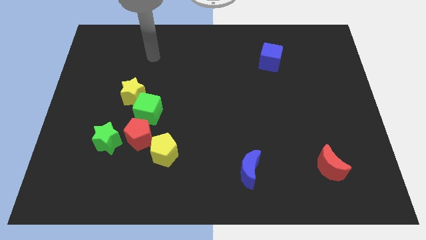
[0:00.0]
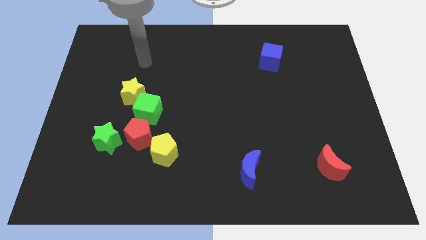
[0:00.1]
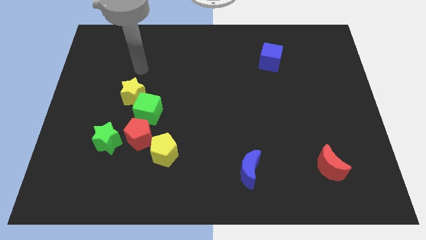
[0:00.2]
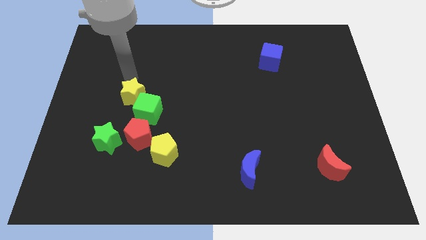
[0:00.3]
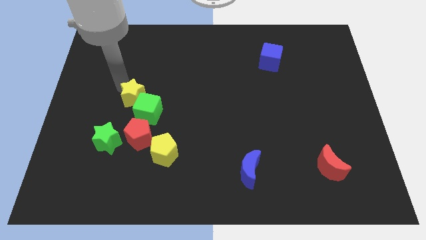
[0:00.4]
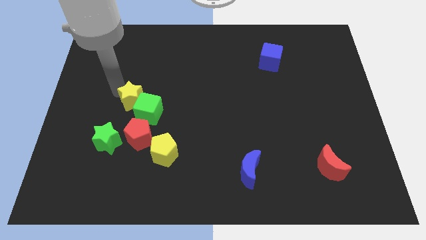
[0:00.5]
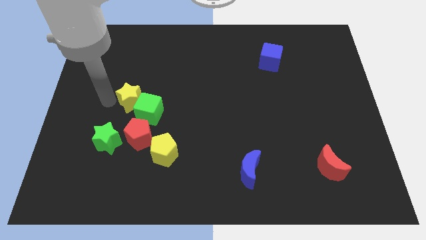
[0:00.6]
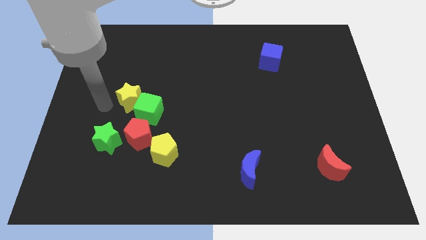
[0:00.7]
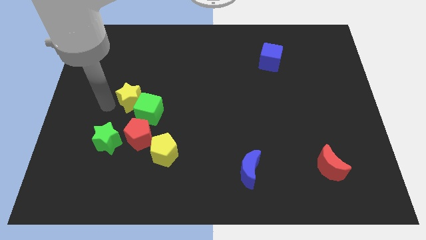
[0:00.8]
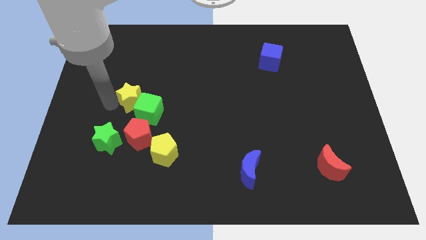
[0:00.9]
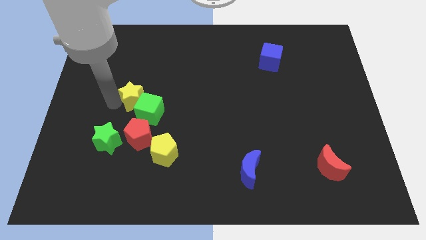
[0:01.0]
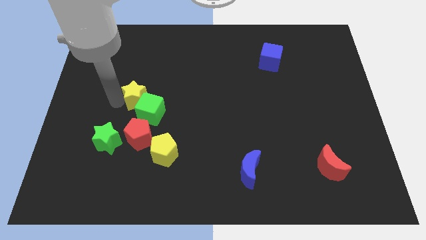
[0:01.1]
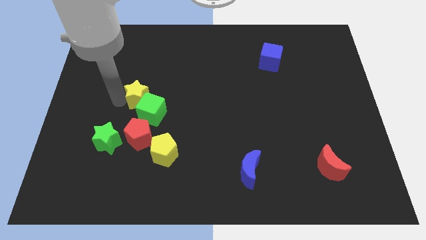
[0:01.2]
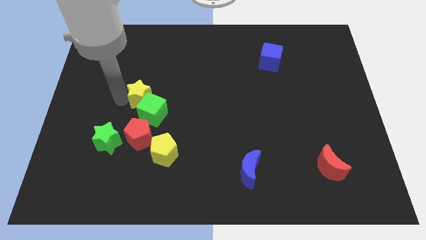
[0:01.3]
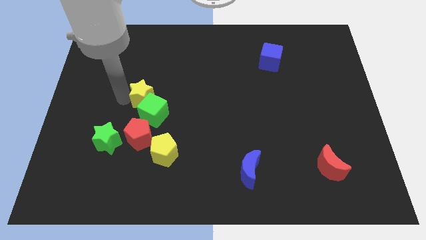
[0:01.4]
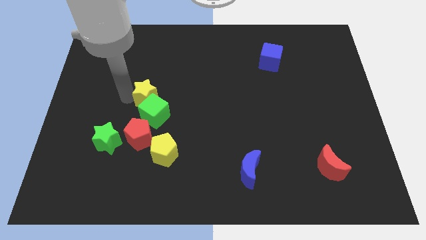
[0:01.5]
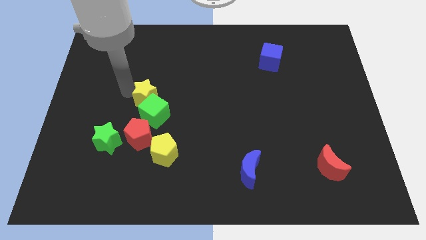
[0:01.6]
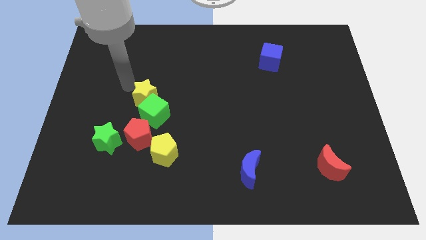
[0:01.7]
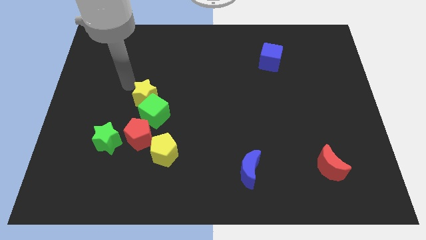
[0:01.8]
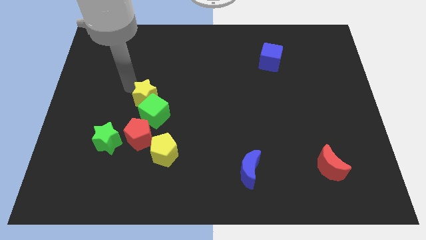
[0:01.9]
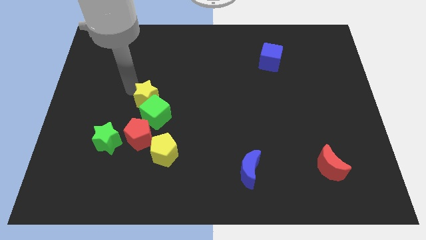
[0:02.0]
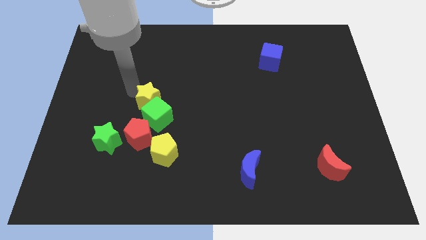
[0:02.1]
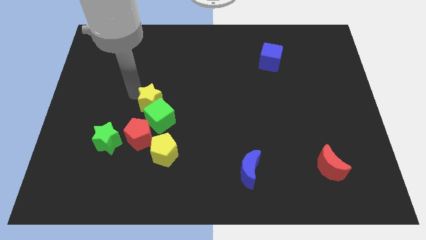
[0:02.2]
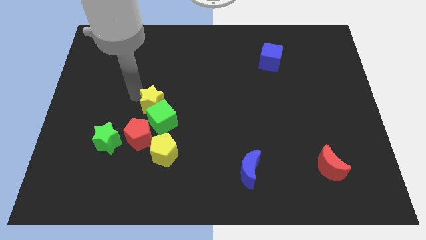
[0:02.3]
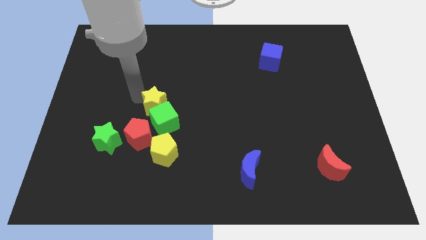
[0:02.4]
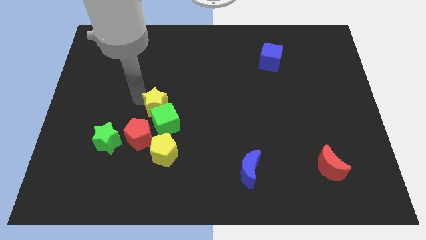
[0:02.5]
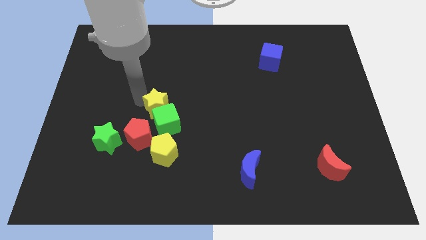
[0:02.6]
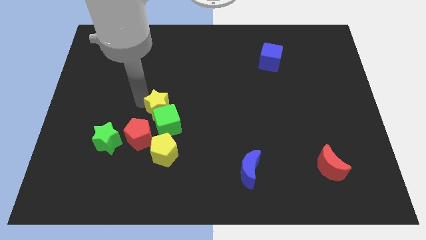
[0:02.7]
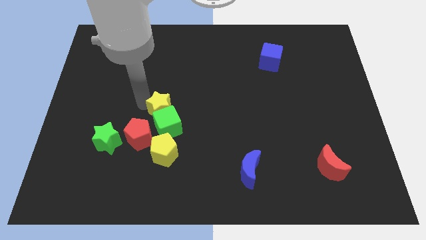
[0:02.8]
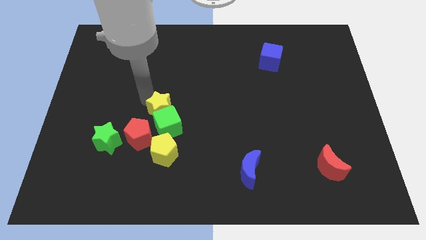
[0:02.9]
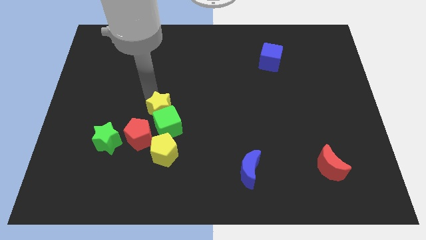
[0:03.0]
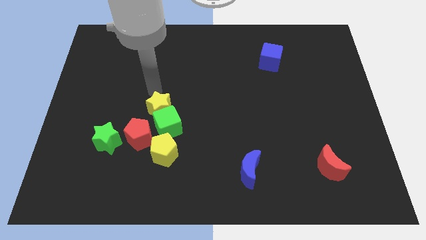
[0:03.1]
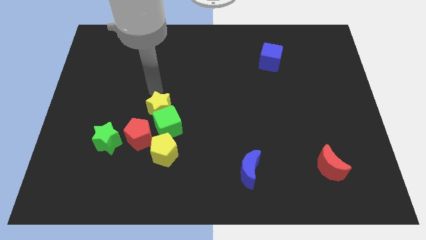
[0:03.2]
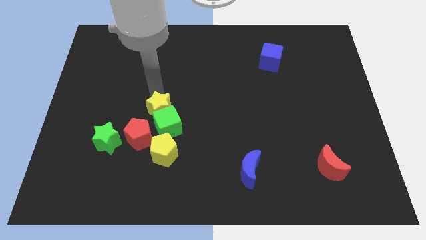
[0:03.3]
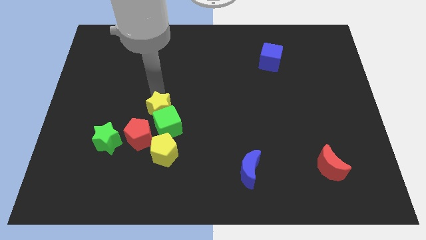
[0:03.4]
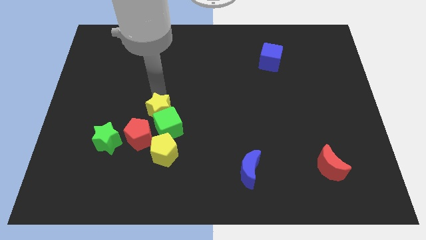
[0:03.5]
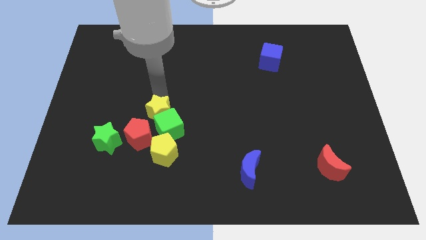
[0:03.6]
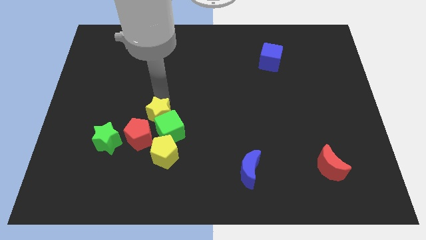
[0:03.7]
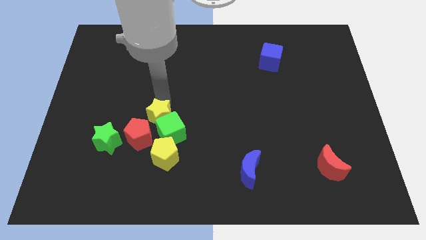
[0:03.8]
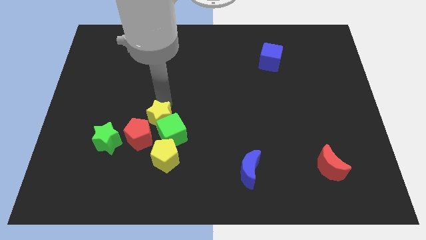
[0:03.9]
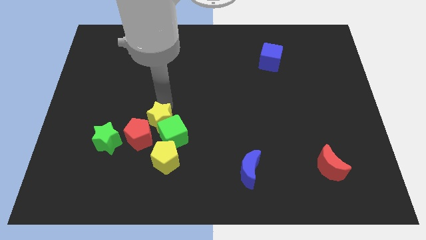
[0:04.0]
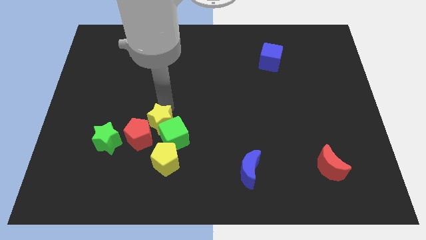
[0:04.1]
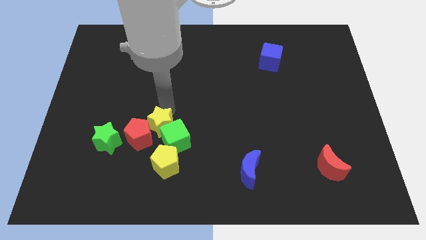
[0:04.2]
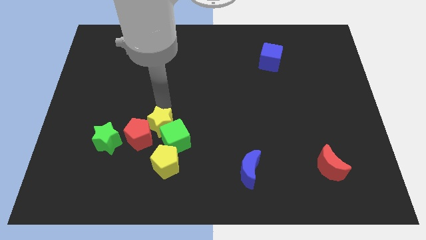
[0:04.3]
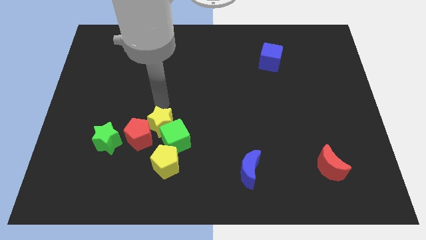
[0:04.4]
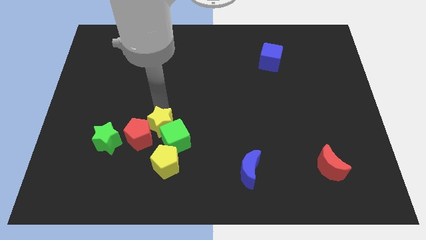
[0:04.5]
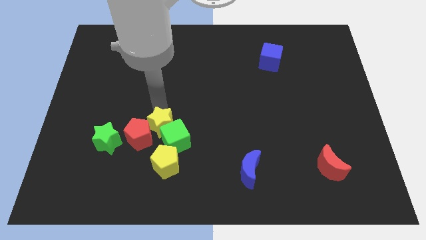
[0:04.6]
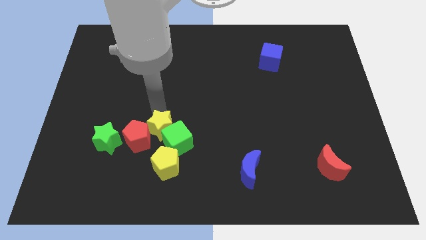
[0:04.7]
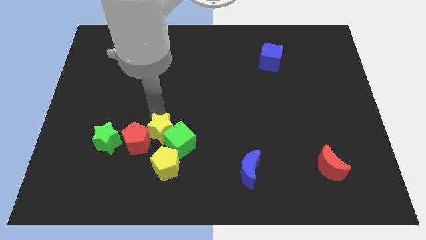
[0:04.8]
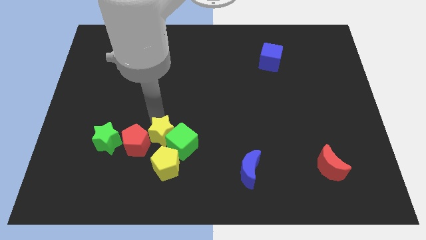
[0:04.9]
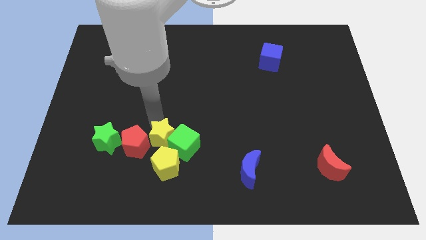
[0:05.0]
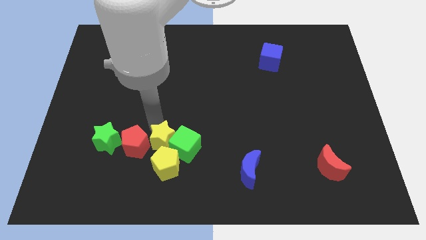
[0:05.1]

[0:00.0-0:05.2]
push the yellow star to the yellow pentagon

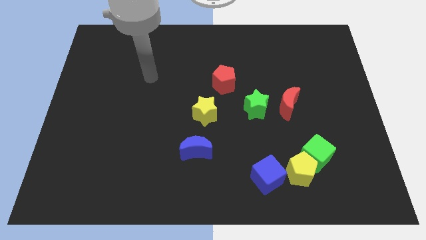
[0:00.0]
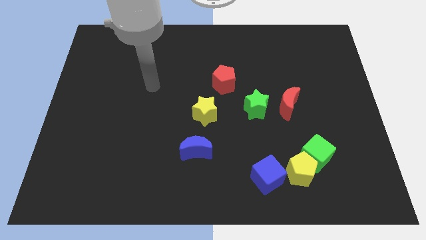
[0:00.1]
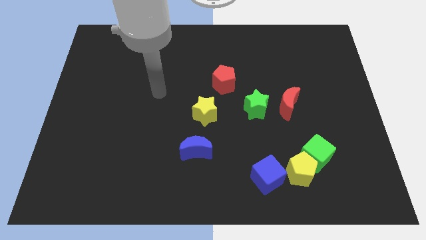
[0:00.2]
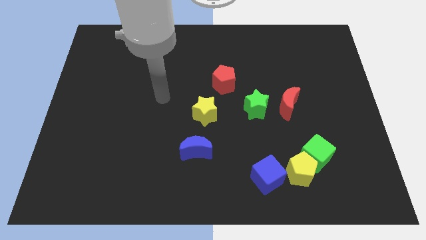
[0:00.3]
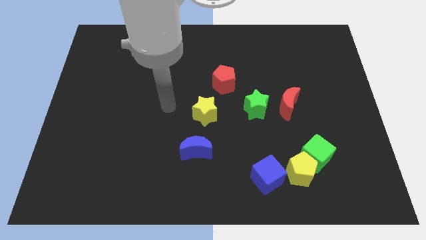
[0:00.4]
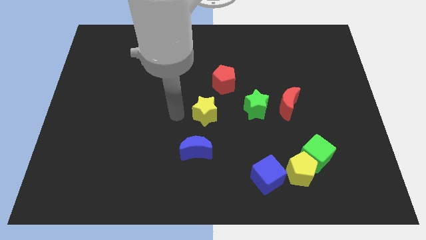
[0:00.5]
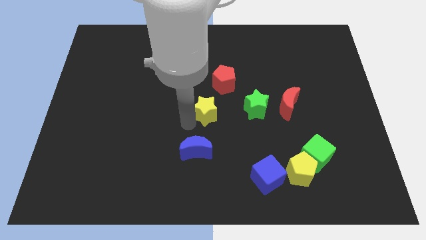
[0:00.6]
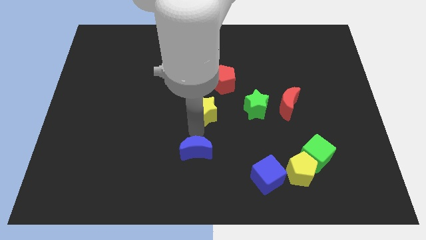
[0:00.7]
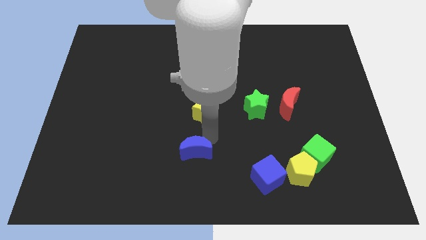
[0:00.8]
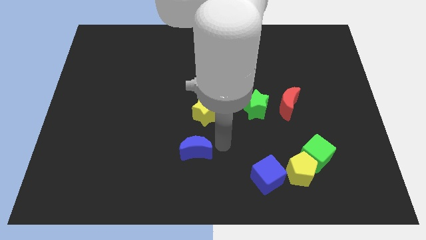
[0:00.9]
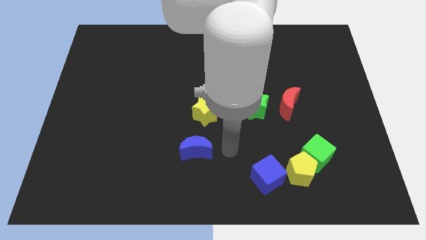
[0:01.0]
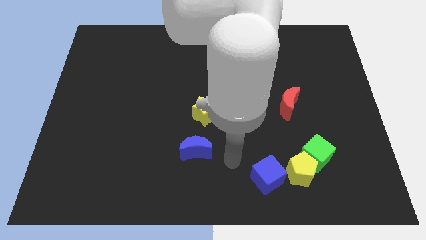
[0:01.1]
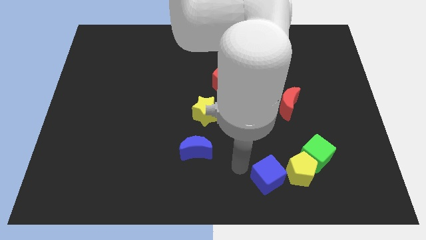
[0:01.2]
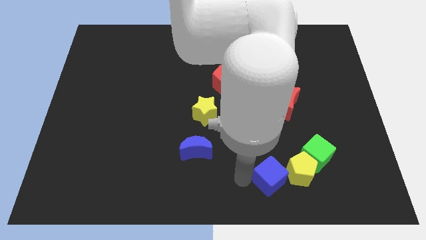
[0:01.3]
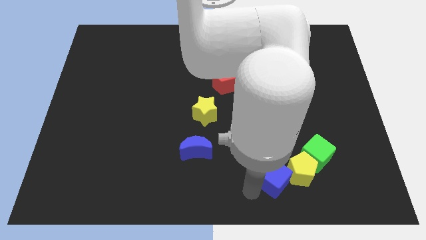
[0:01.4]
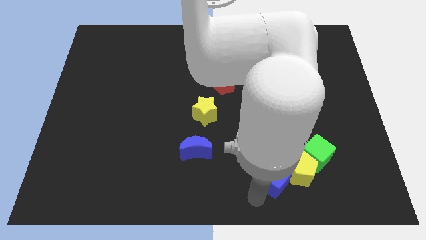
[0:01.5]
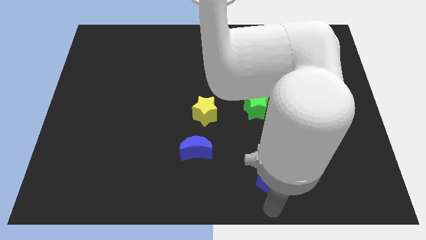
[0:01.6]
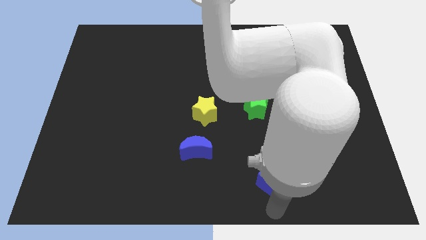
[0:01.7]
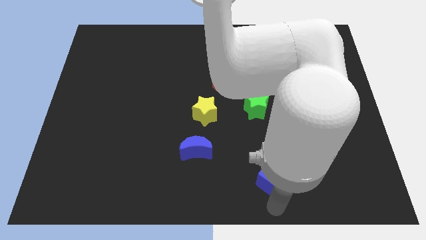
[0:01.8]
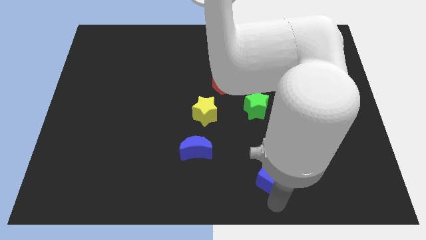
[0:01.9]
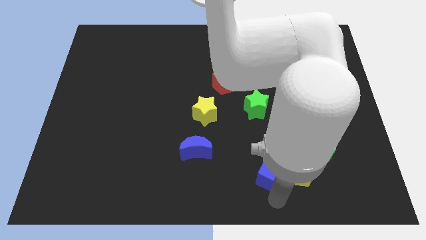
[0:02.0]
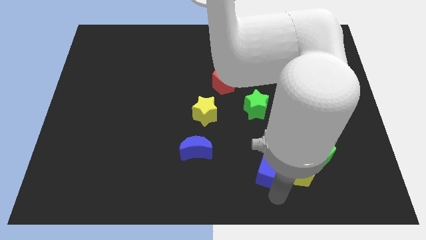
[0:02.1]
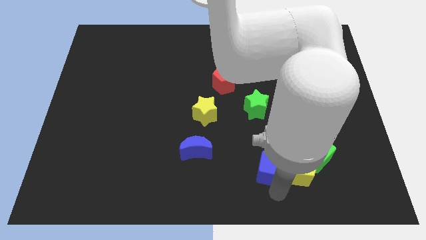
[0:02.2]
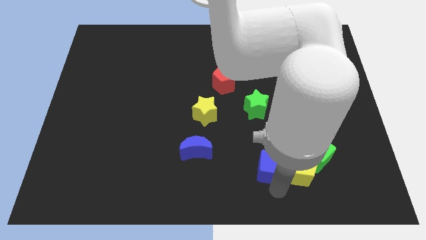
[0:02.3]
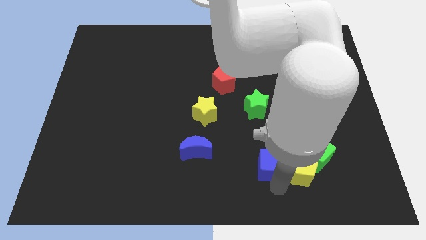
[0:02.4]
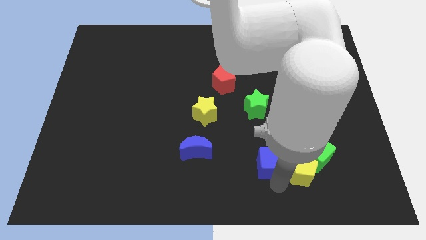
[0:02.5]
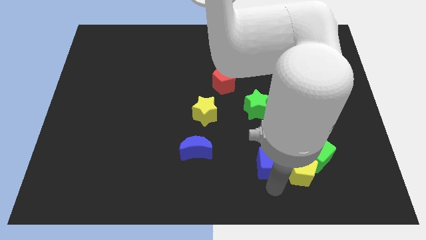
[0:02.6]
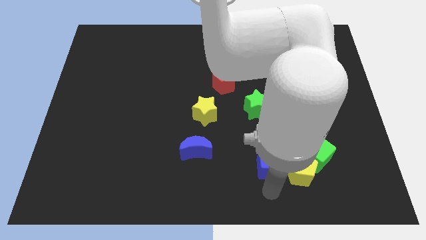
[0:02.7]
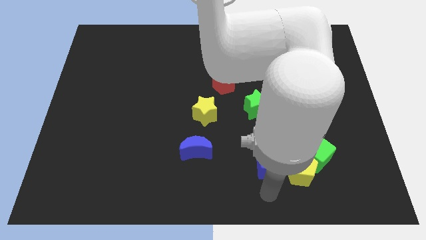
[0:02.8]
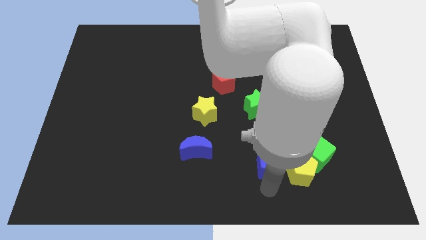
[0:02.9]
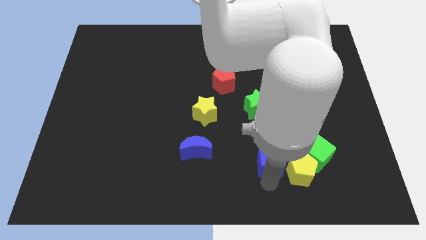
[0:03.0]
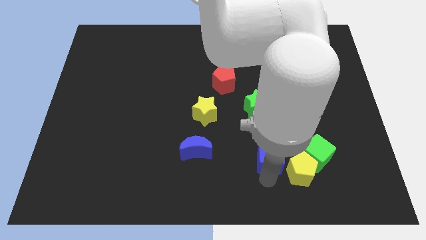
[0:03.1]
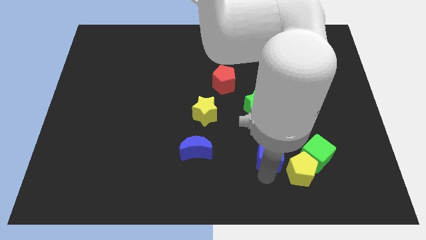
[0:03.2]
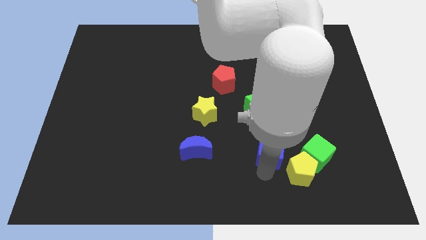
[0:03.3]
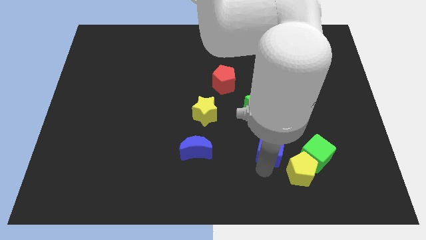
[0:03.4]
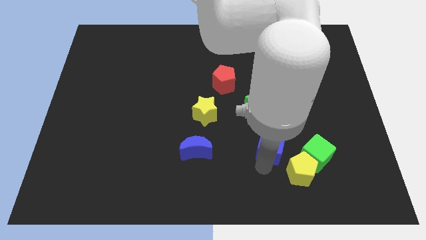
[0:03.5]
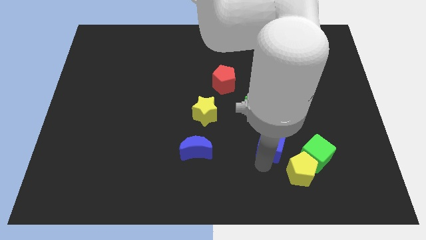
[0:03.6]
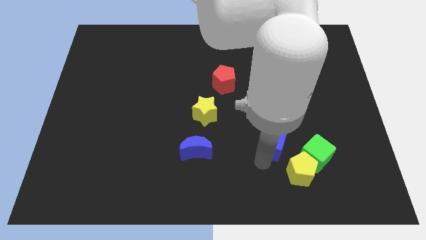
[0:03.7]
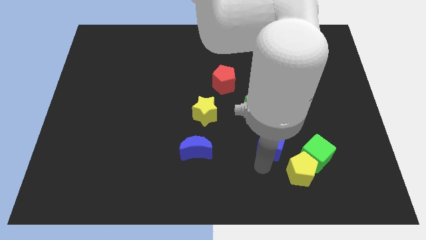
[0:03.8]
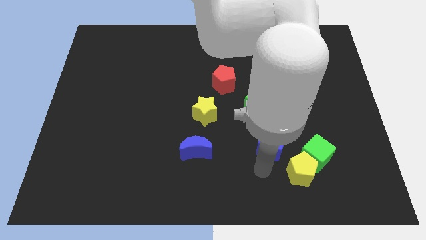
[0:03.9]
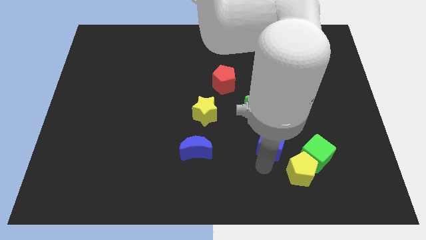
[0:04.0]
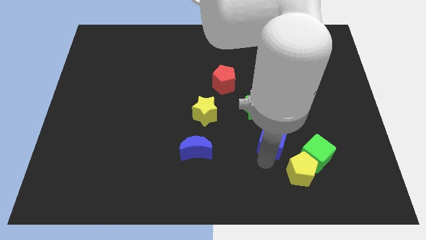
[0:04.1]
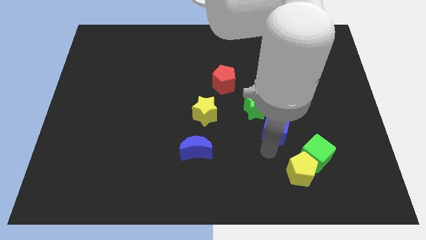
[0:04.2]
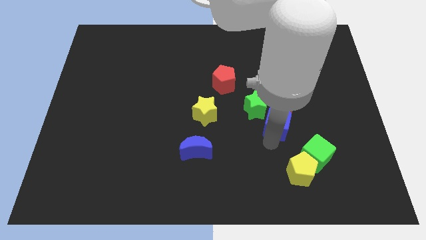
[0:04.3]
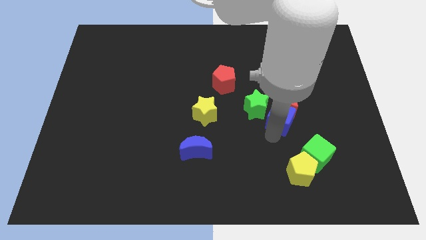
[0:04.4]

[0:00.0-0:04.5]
put the blue cube close to the red moon
